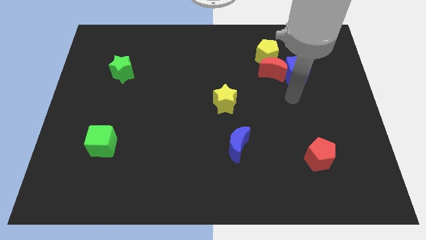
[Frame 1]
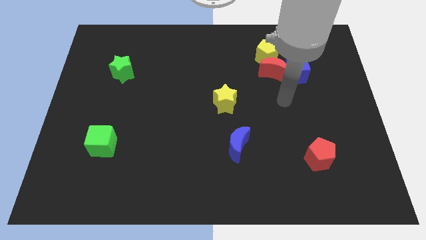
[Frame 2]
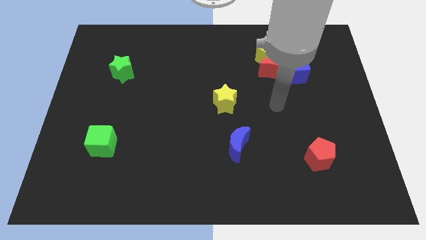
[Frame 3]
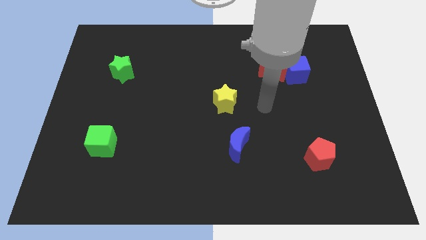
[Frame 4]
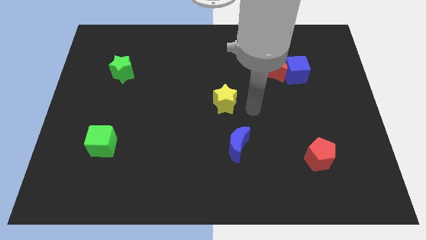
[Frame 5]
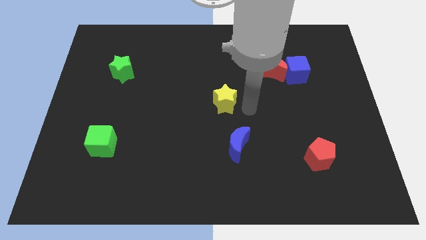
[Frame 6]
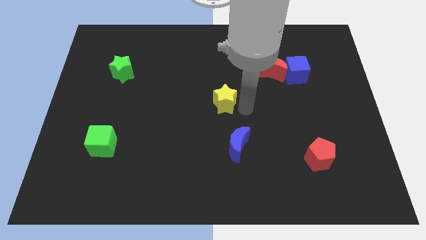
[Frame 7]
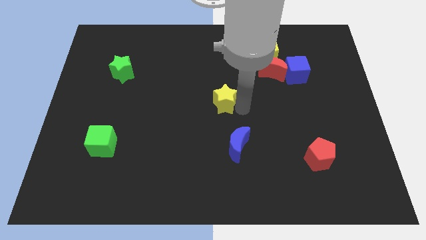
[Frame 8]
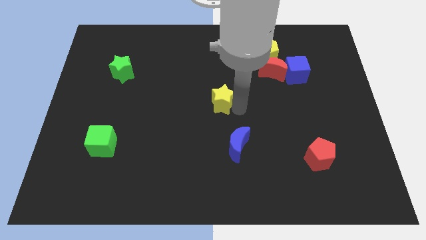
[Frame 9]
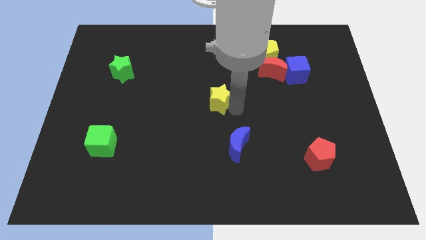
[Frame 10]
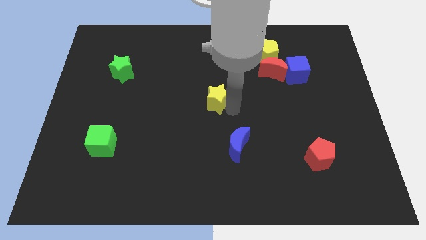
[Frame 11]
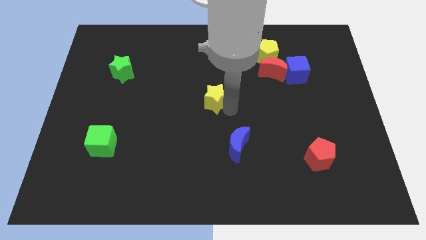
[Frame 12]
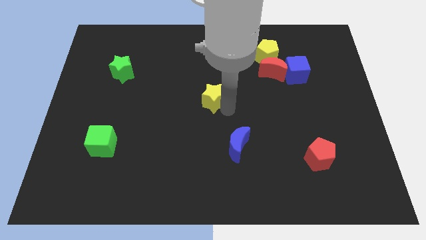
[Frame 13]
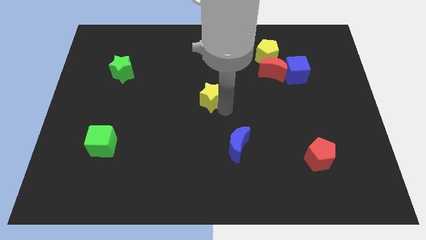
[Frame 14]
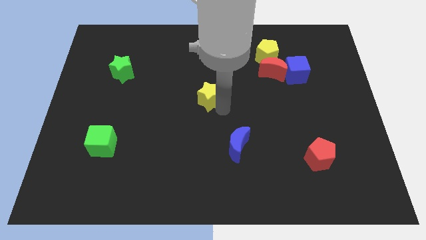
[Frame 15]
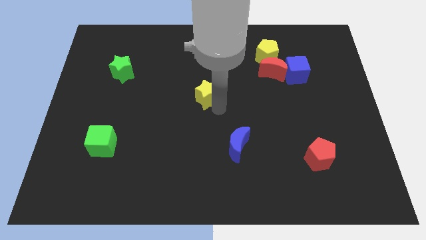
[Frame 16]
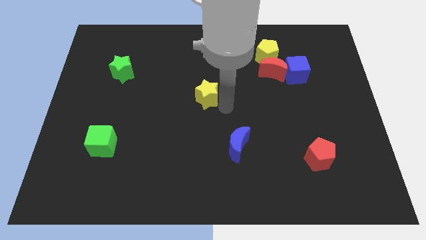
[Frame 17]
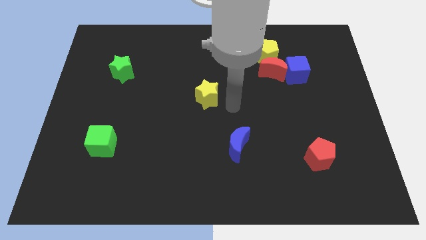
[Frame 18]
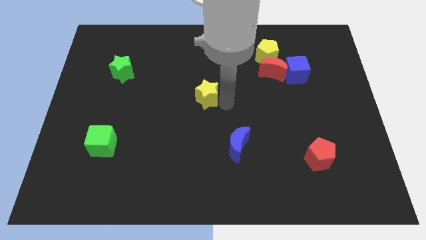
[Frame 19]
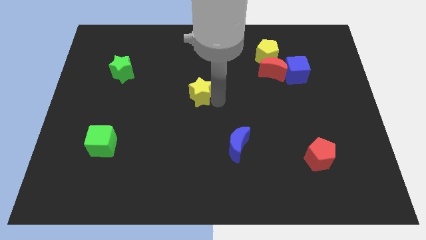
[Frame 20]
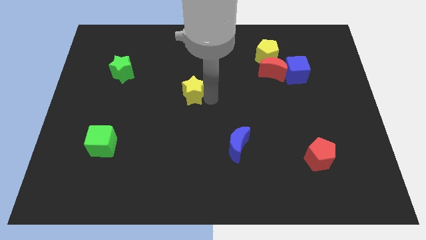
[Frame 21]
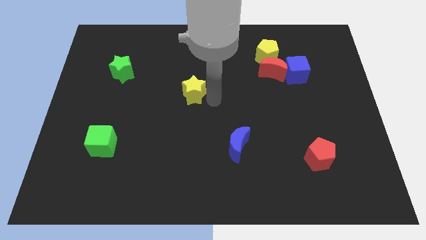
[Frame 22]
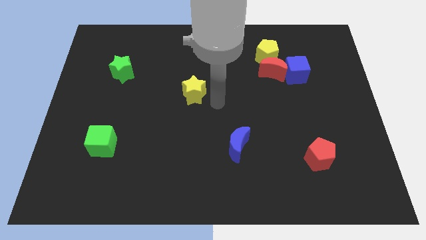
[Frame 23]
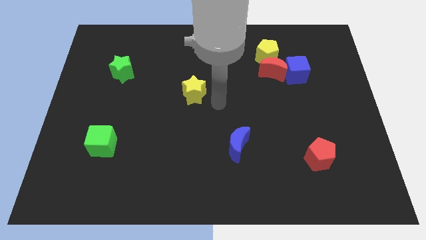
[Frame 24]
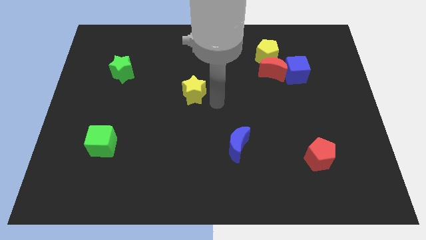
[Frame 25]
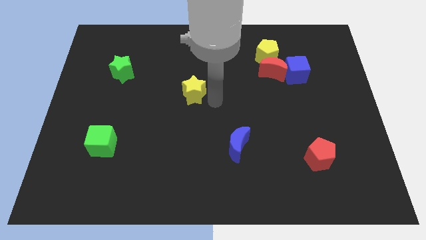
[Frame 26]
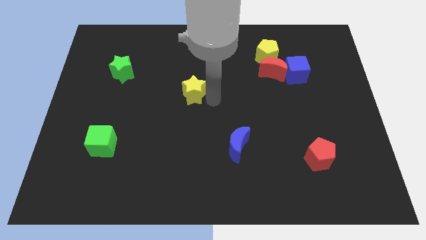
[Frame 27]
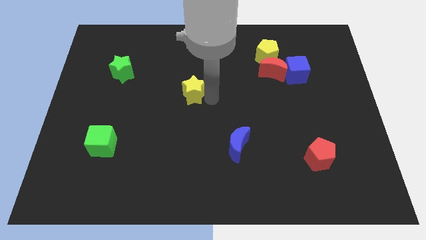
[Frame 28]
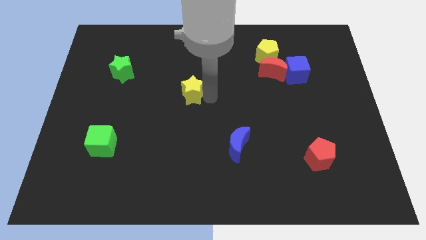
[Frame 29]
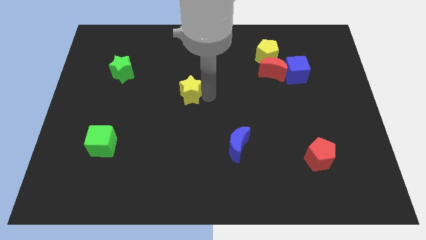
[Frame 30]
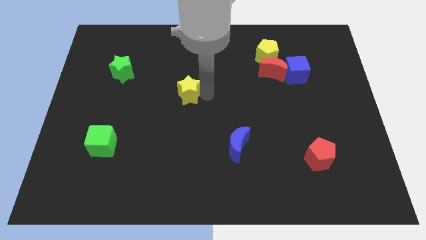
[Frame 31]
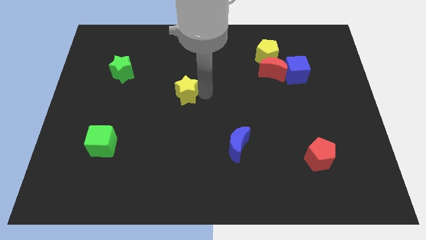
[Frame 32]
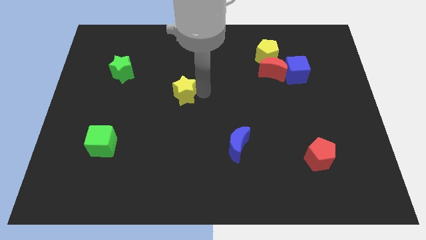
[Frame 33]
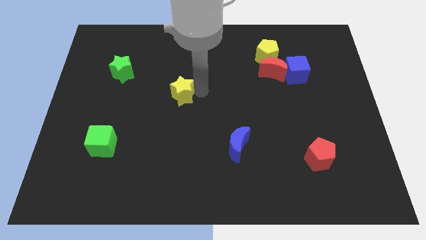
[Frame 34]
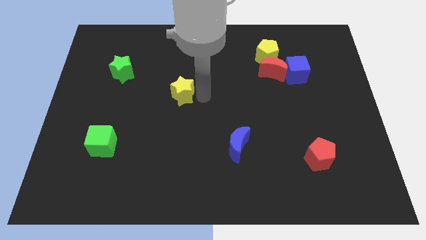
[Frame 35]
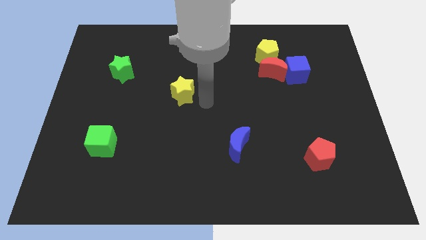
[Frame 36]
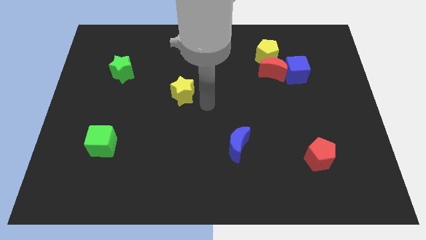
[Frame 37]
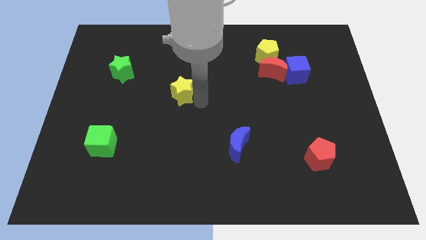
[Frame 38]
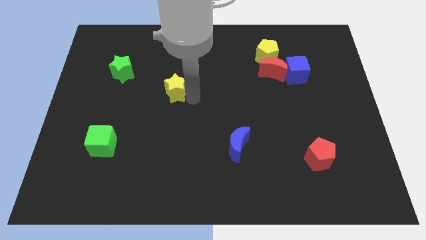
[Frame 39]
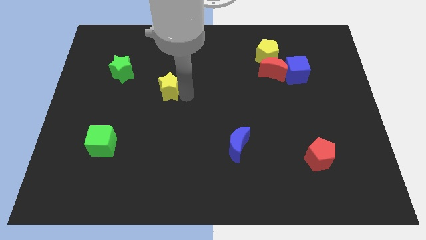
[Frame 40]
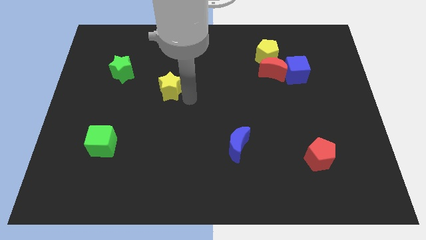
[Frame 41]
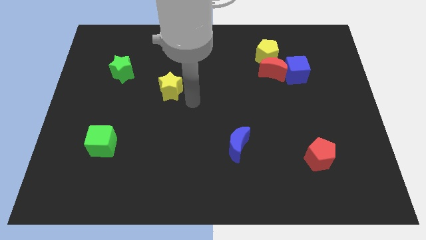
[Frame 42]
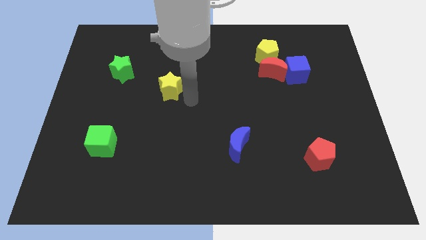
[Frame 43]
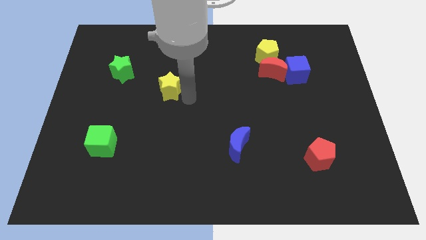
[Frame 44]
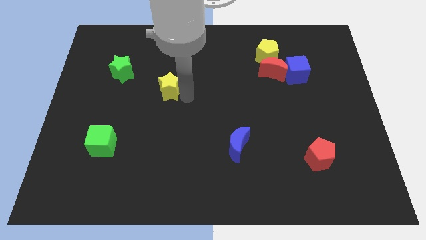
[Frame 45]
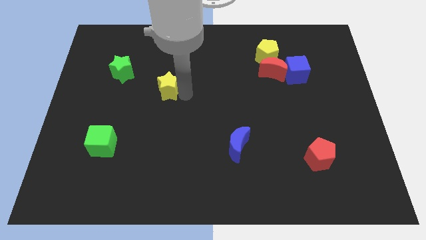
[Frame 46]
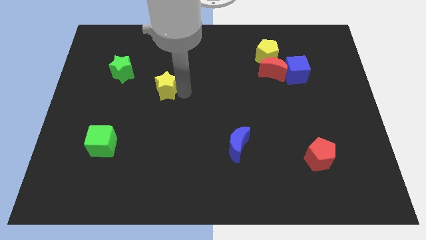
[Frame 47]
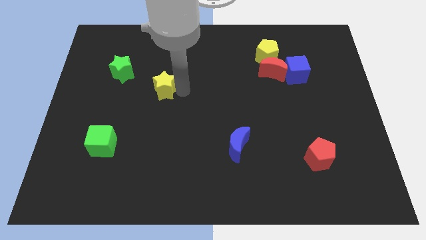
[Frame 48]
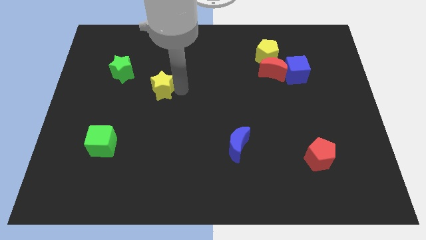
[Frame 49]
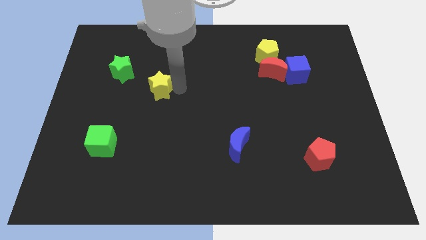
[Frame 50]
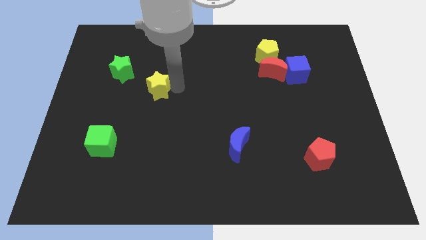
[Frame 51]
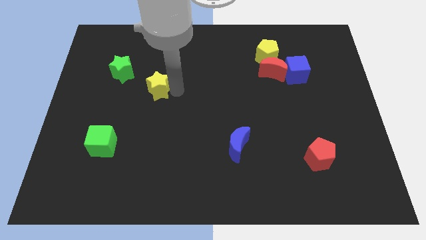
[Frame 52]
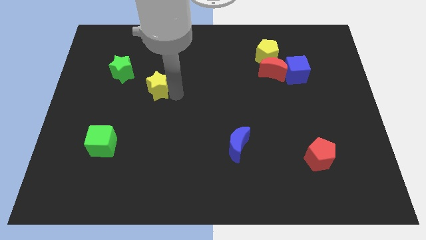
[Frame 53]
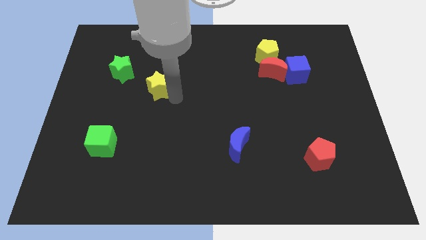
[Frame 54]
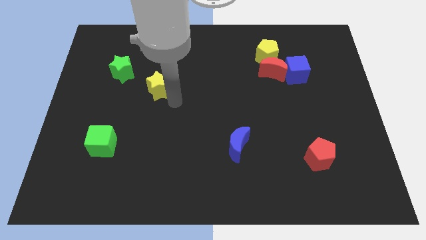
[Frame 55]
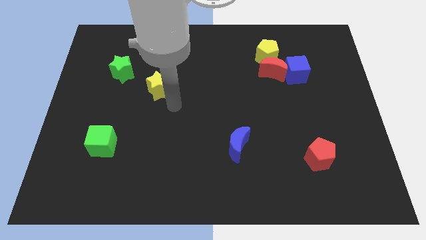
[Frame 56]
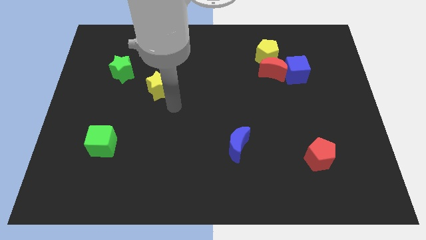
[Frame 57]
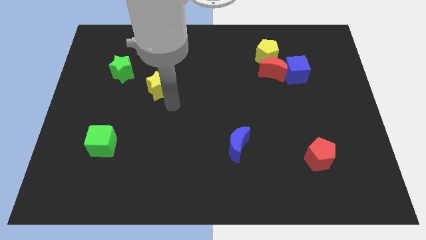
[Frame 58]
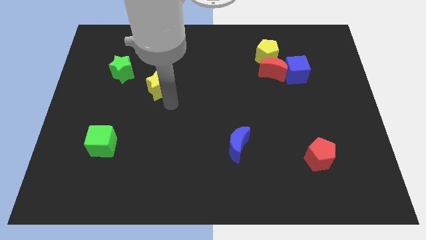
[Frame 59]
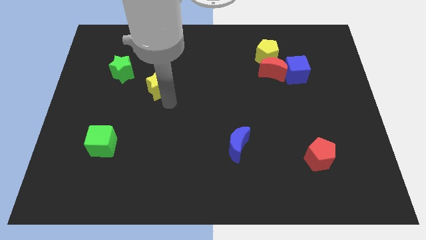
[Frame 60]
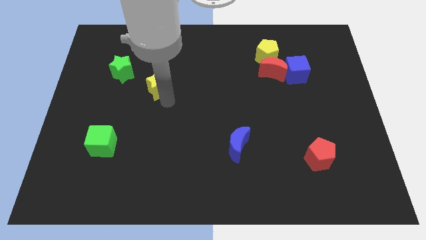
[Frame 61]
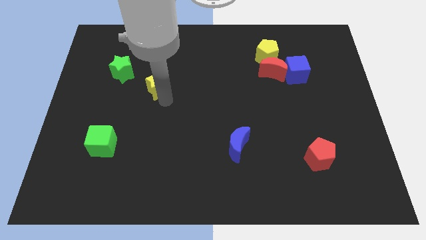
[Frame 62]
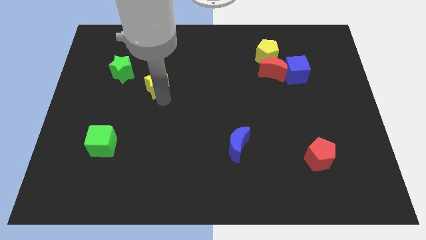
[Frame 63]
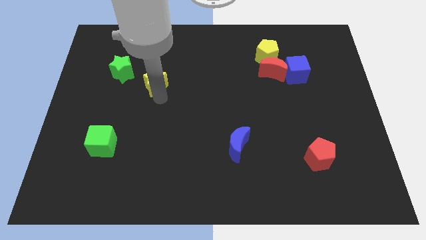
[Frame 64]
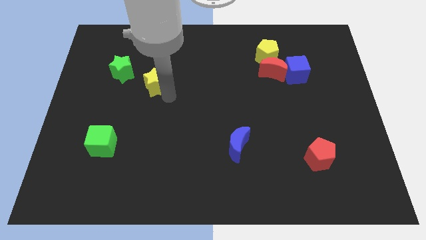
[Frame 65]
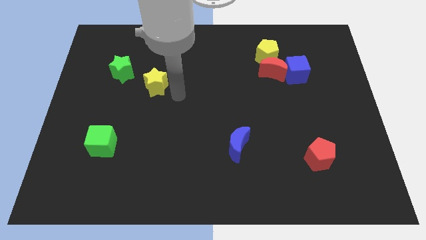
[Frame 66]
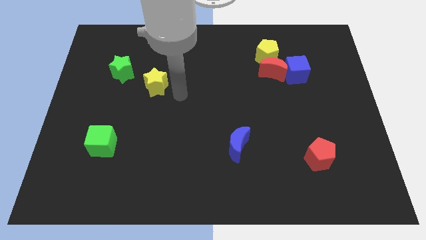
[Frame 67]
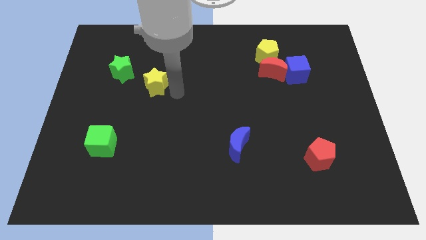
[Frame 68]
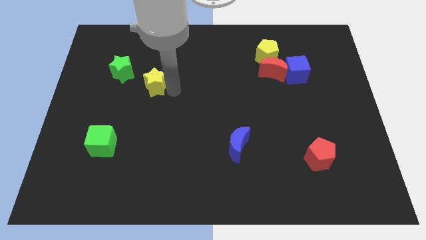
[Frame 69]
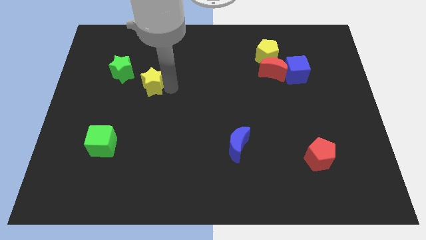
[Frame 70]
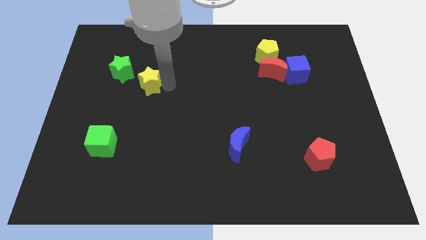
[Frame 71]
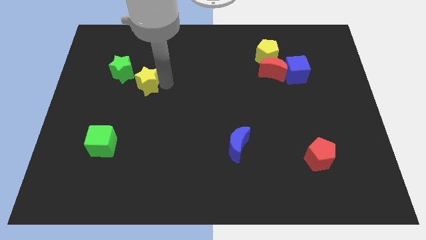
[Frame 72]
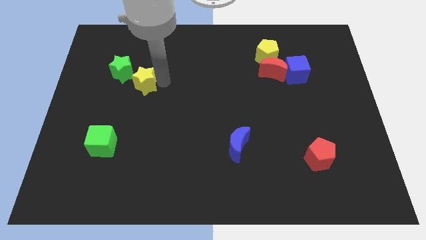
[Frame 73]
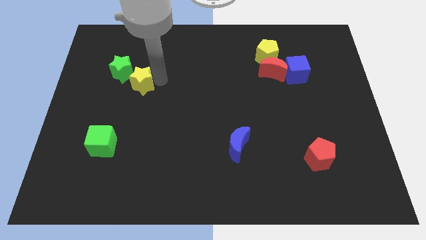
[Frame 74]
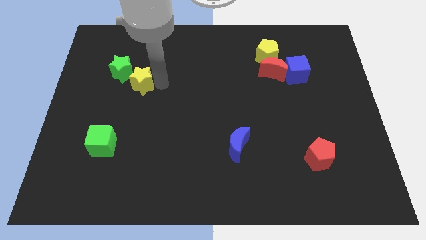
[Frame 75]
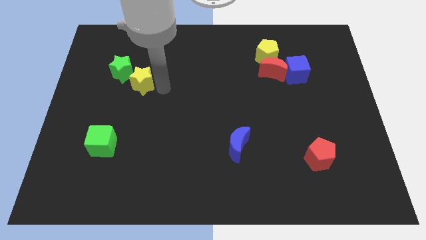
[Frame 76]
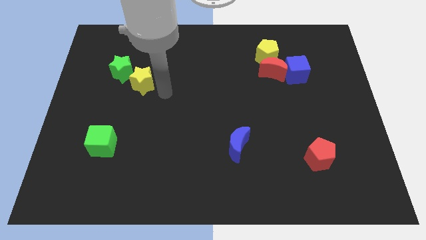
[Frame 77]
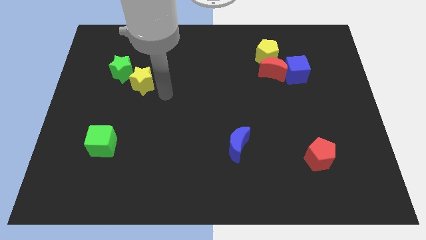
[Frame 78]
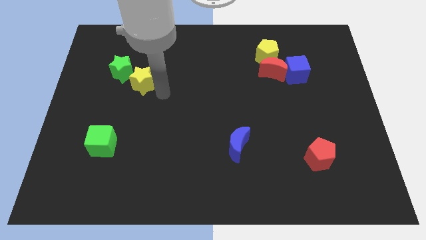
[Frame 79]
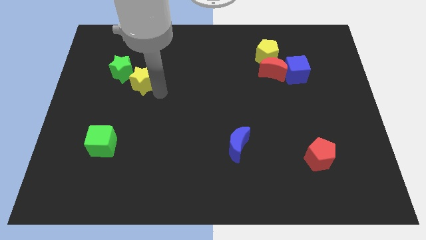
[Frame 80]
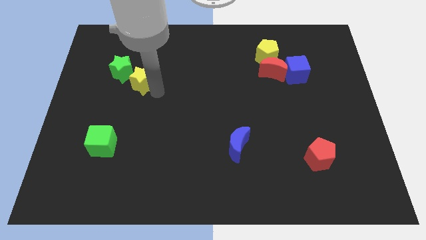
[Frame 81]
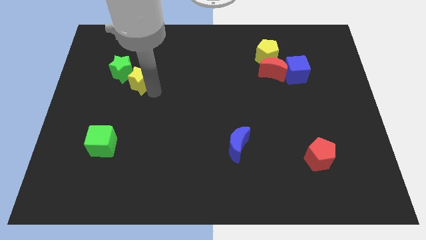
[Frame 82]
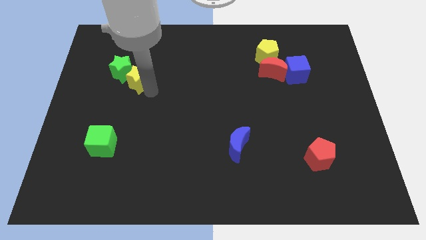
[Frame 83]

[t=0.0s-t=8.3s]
push the yellow star close to the green star
